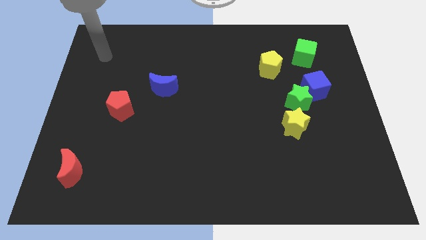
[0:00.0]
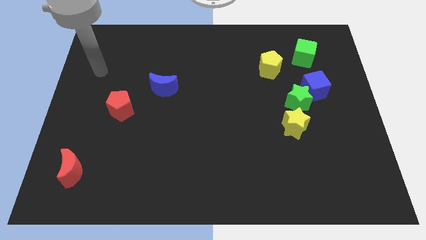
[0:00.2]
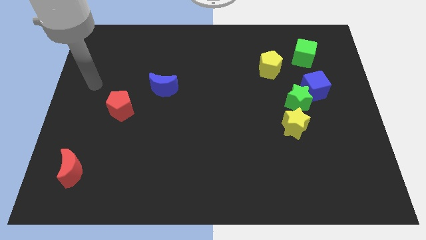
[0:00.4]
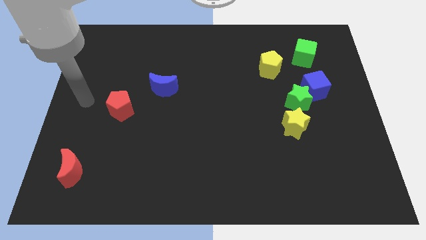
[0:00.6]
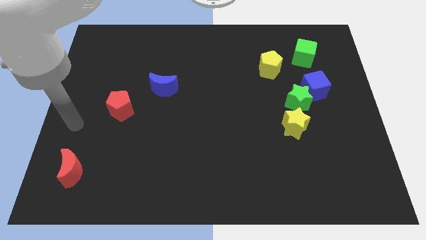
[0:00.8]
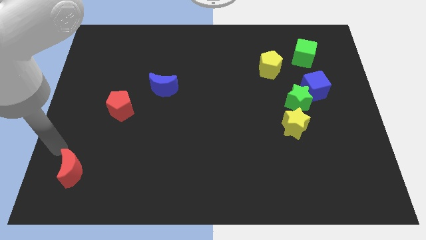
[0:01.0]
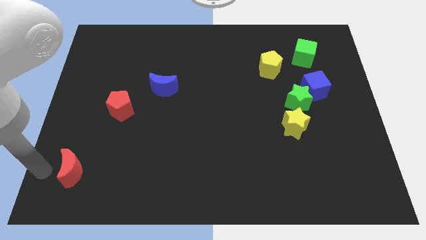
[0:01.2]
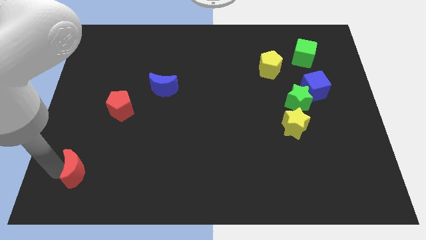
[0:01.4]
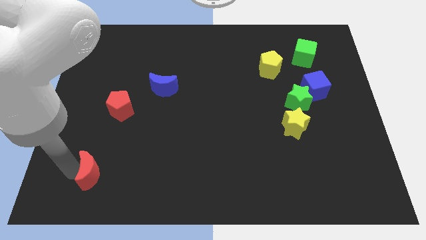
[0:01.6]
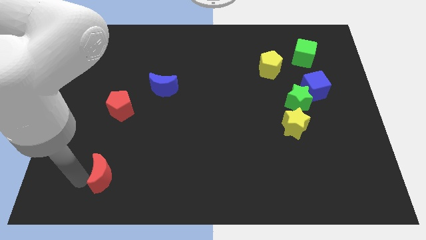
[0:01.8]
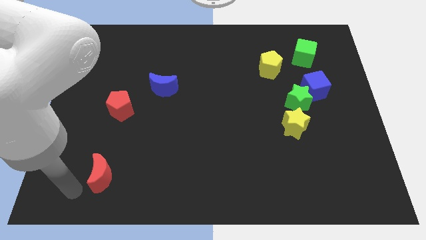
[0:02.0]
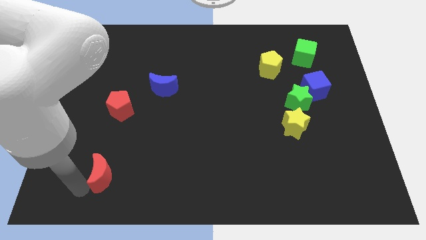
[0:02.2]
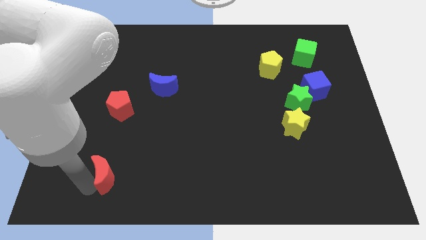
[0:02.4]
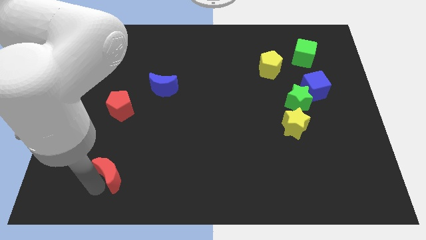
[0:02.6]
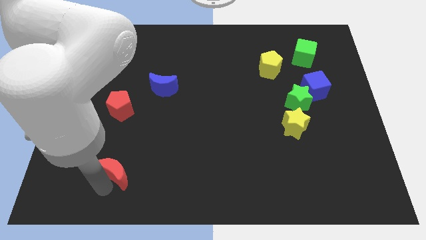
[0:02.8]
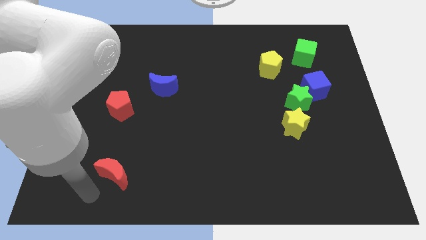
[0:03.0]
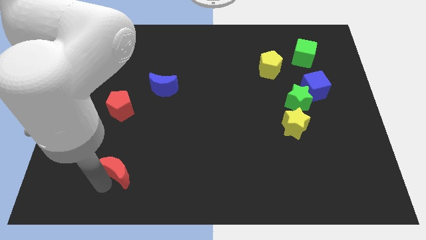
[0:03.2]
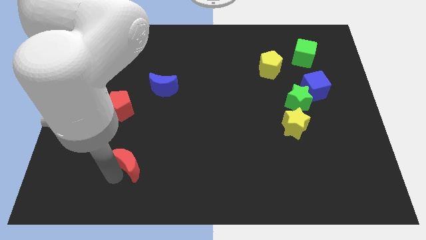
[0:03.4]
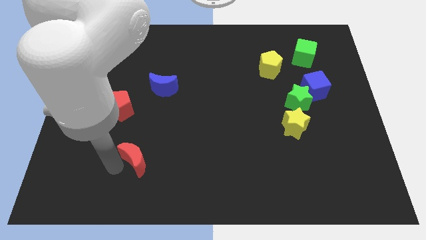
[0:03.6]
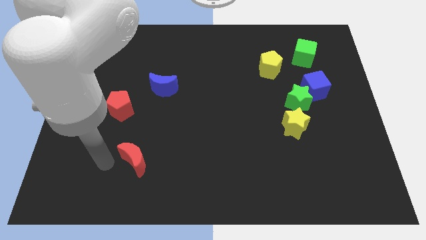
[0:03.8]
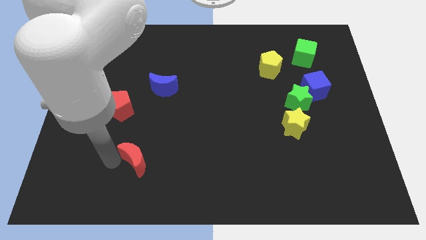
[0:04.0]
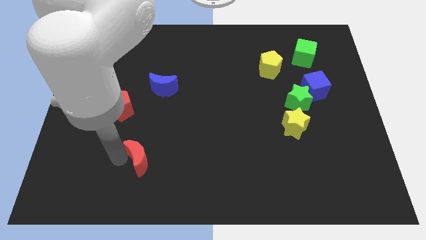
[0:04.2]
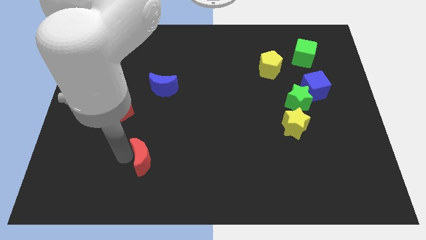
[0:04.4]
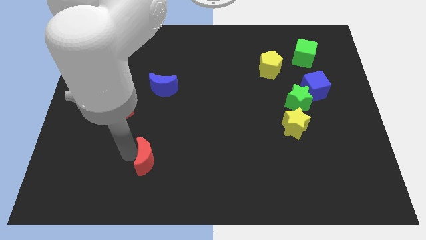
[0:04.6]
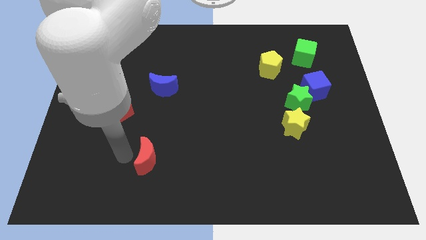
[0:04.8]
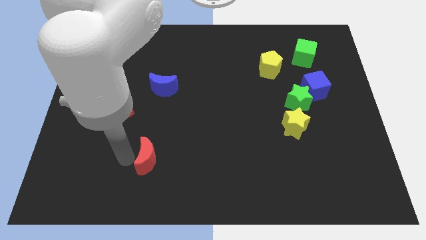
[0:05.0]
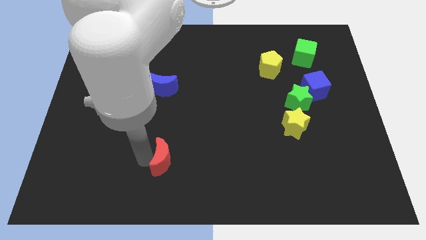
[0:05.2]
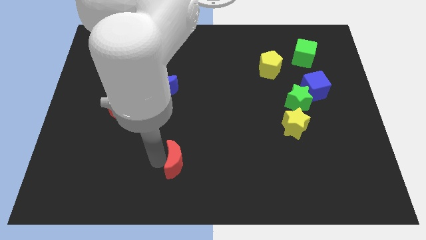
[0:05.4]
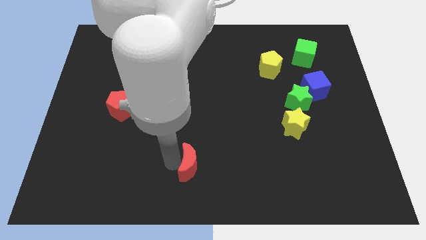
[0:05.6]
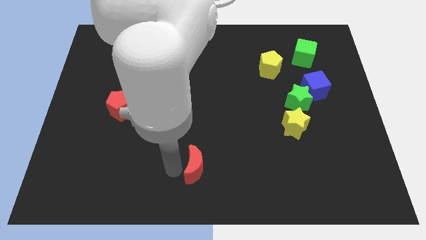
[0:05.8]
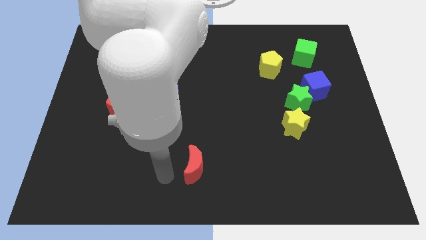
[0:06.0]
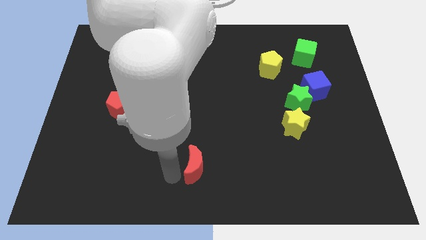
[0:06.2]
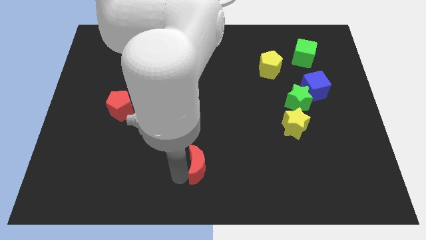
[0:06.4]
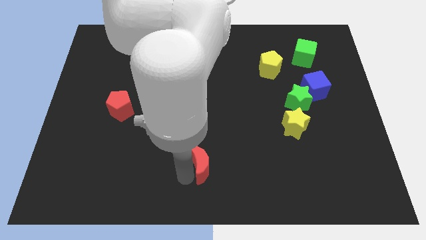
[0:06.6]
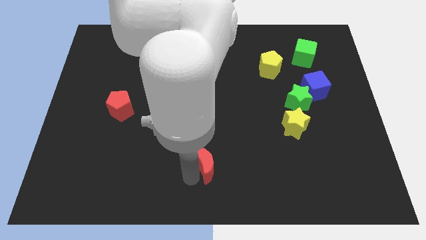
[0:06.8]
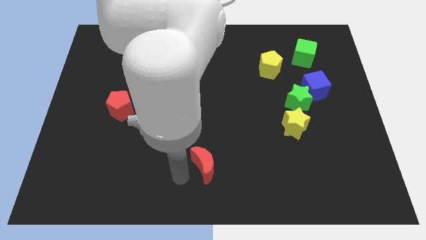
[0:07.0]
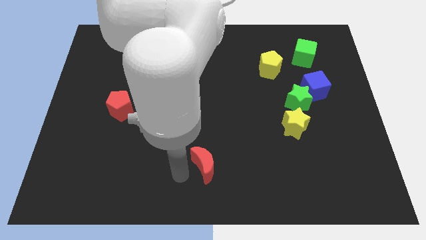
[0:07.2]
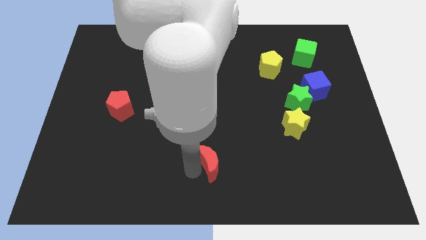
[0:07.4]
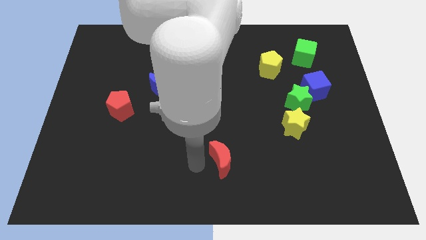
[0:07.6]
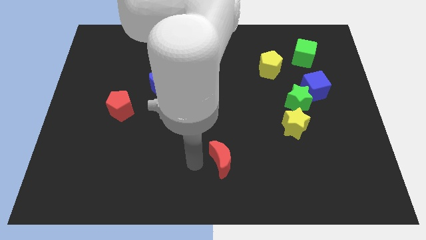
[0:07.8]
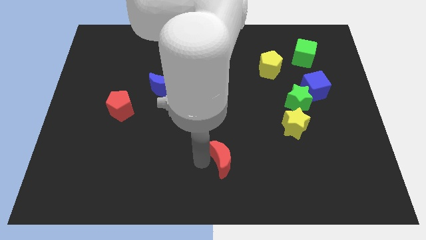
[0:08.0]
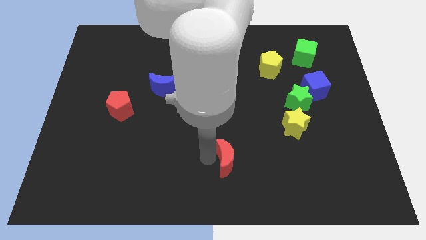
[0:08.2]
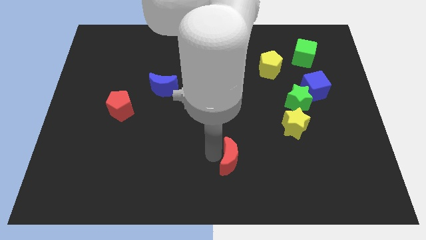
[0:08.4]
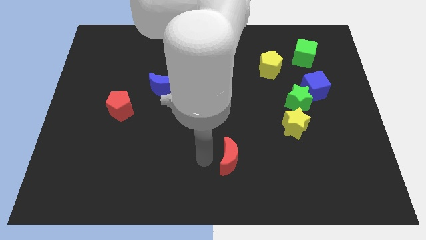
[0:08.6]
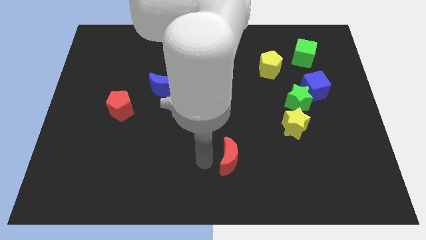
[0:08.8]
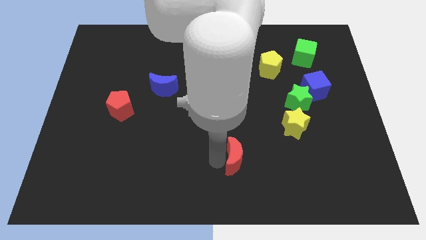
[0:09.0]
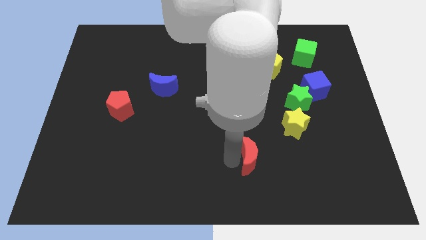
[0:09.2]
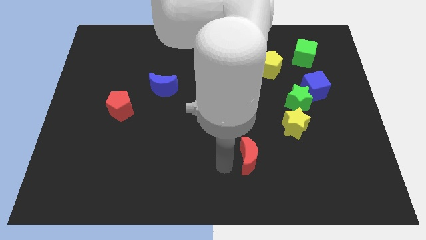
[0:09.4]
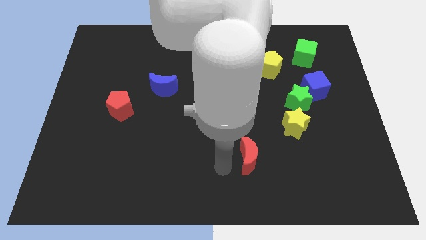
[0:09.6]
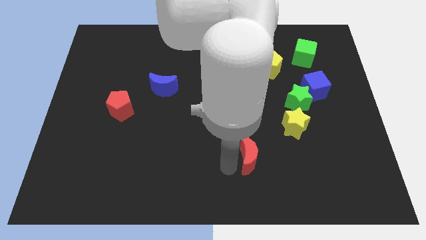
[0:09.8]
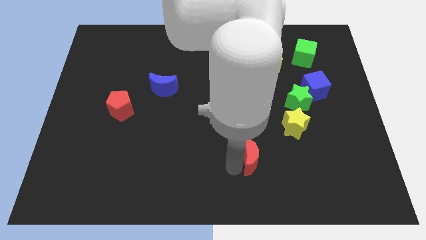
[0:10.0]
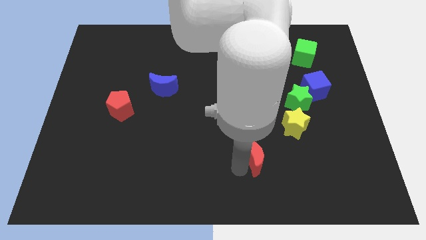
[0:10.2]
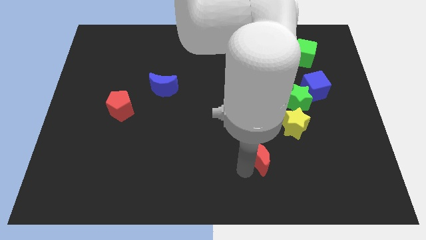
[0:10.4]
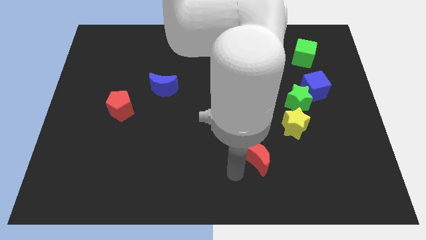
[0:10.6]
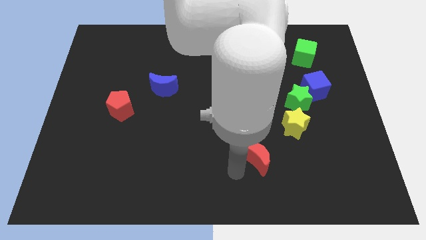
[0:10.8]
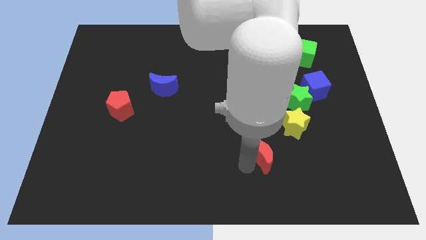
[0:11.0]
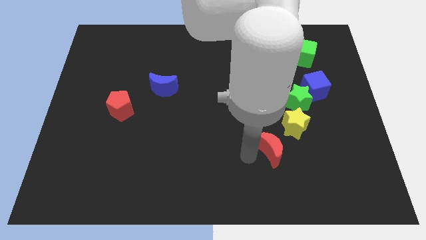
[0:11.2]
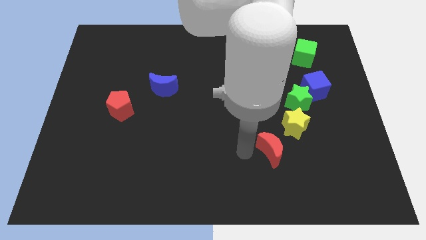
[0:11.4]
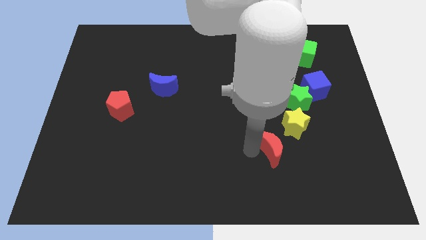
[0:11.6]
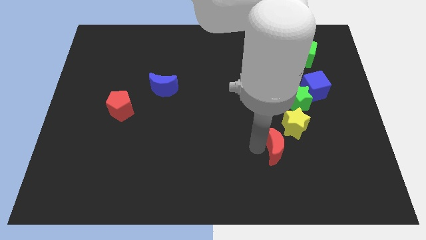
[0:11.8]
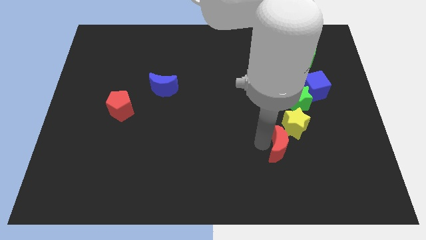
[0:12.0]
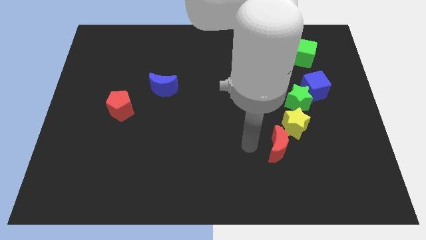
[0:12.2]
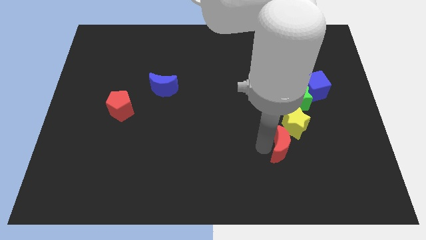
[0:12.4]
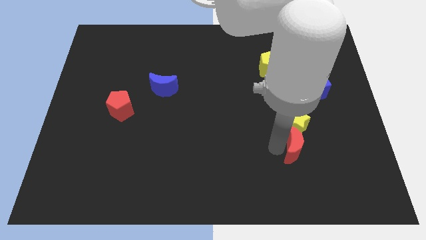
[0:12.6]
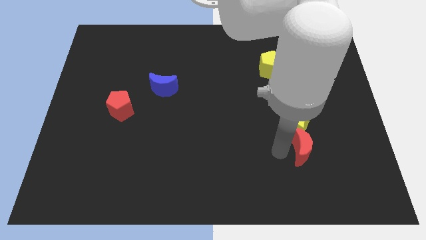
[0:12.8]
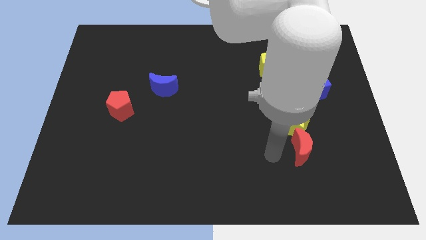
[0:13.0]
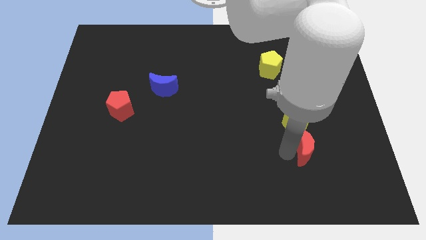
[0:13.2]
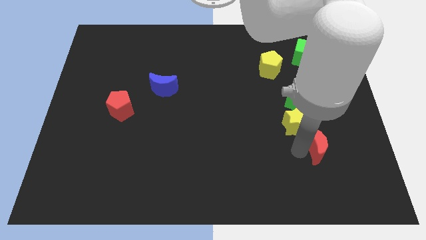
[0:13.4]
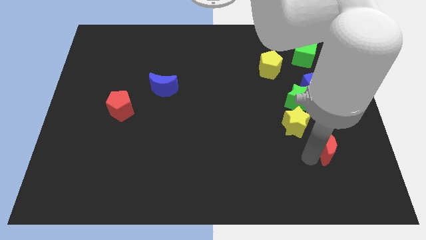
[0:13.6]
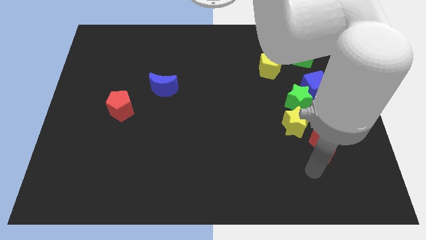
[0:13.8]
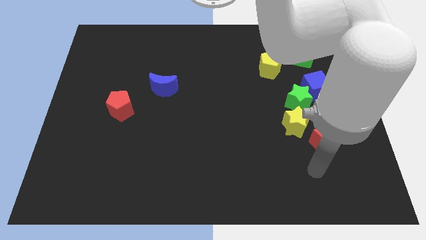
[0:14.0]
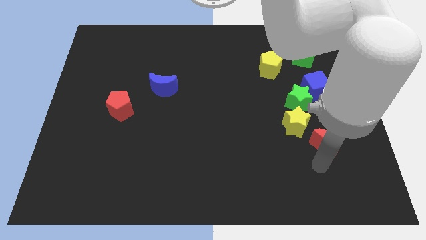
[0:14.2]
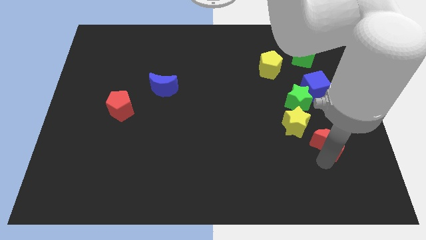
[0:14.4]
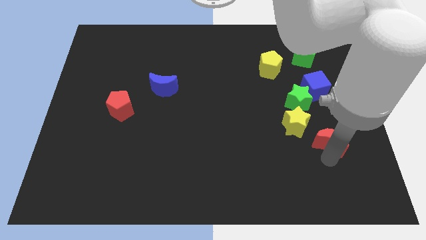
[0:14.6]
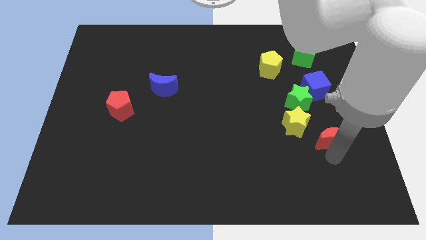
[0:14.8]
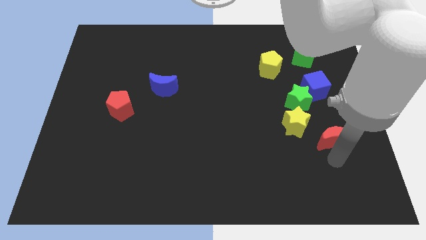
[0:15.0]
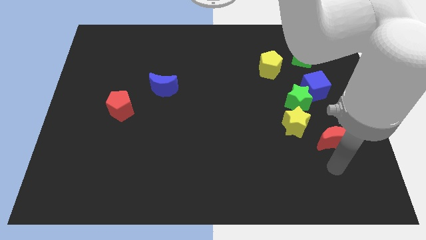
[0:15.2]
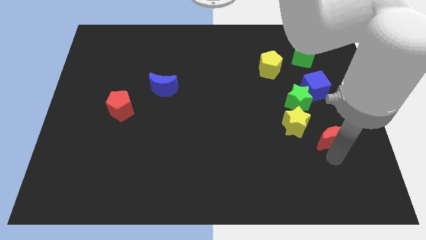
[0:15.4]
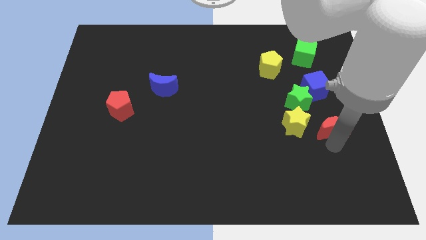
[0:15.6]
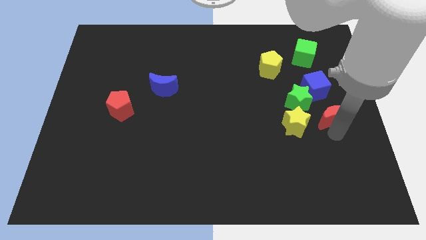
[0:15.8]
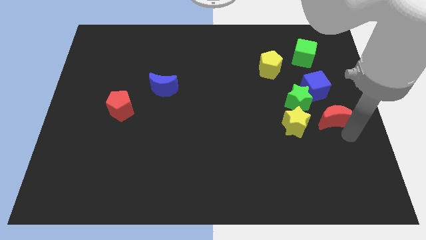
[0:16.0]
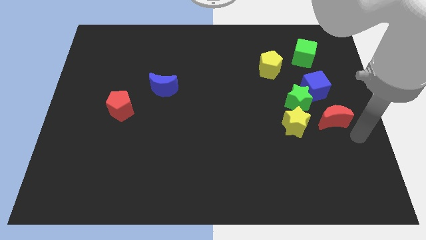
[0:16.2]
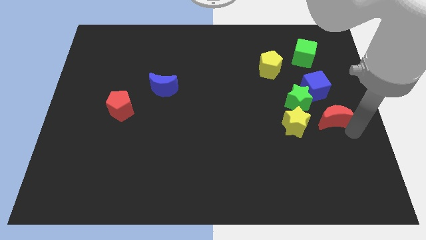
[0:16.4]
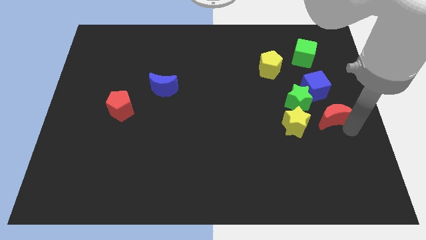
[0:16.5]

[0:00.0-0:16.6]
push the red moon diagonally up and to the right of the yellow star
